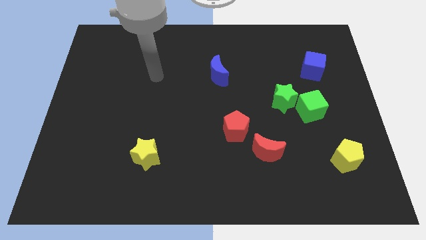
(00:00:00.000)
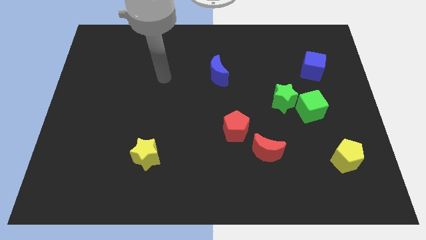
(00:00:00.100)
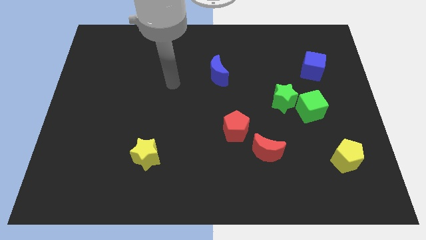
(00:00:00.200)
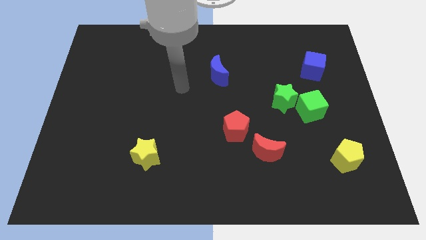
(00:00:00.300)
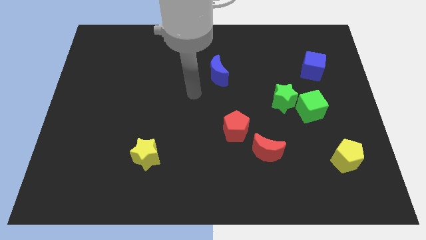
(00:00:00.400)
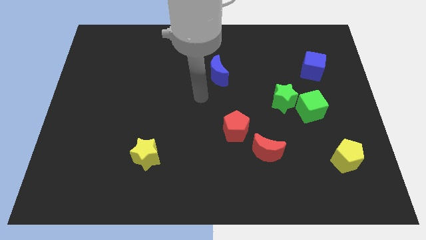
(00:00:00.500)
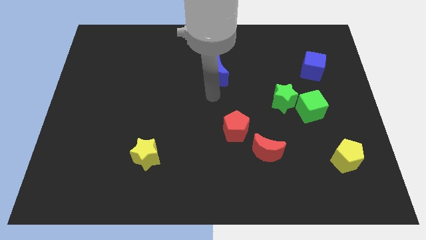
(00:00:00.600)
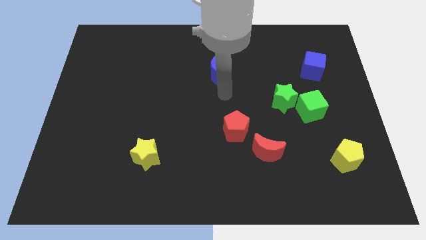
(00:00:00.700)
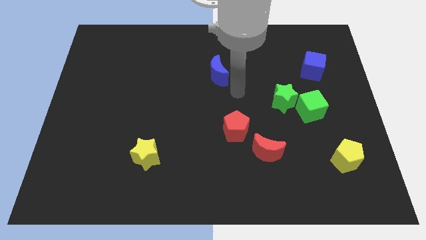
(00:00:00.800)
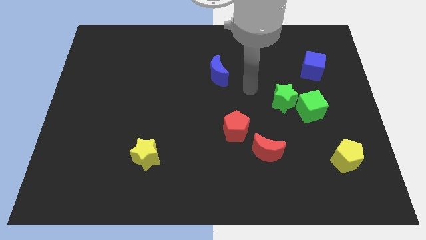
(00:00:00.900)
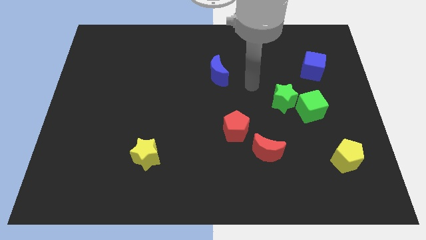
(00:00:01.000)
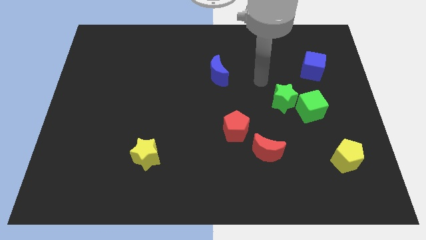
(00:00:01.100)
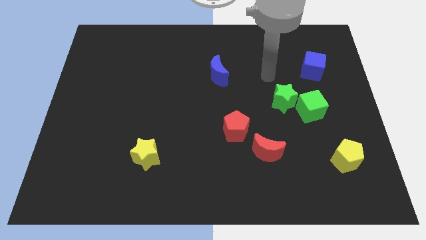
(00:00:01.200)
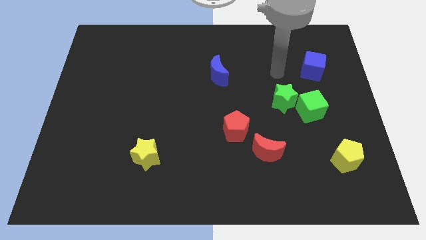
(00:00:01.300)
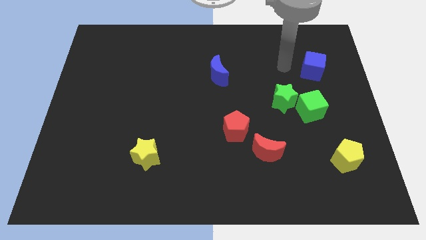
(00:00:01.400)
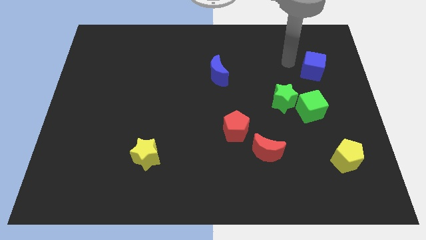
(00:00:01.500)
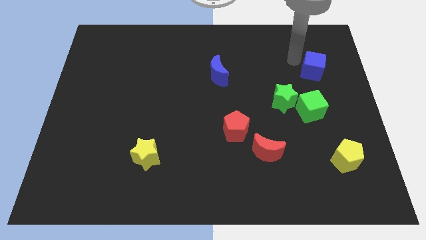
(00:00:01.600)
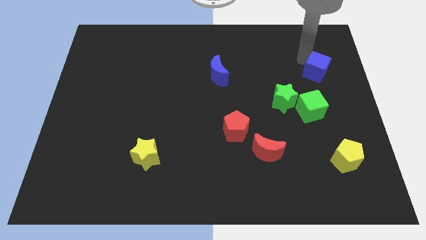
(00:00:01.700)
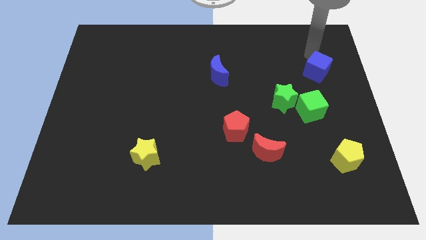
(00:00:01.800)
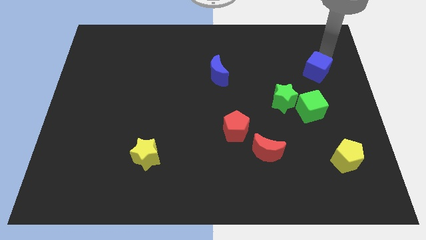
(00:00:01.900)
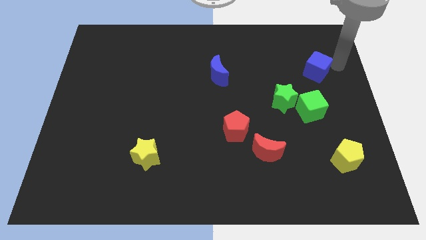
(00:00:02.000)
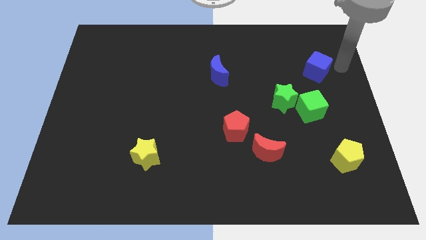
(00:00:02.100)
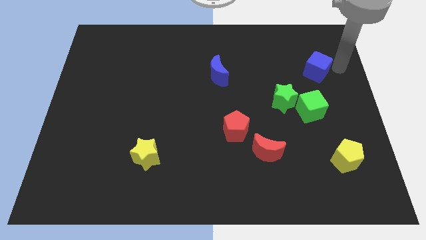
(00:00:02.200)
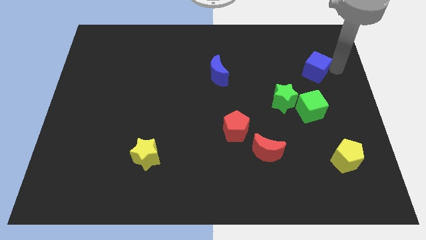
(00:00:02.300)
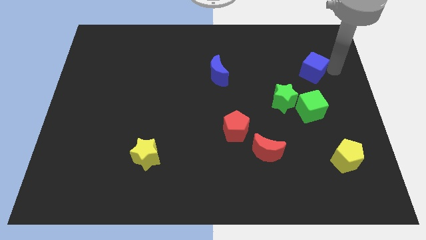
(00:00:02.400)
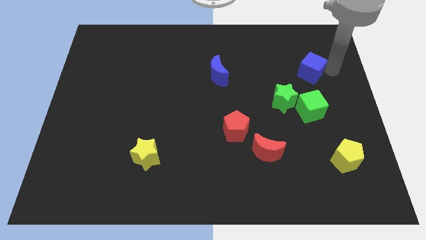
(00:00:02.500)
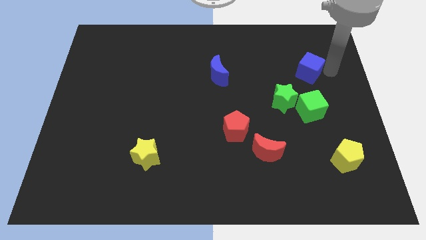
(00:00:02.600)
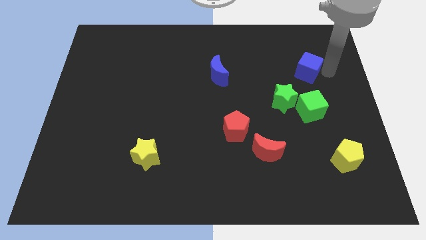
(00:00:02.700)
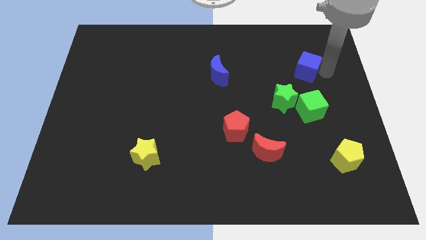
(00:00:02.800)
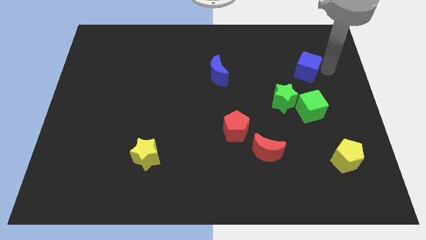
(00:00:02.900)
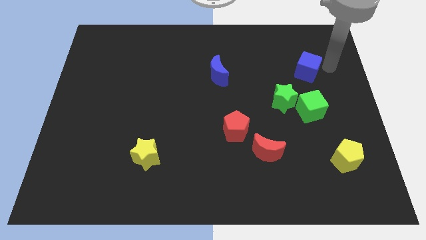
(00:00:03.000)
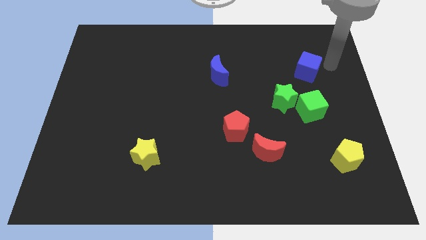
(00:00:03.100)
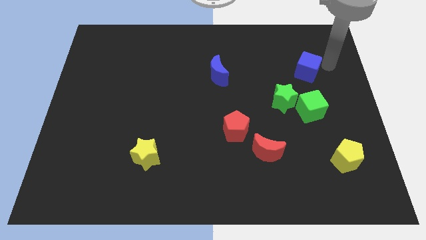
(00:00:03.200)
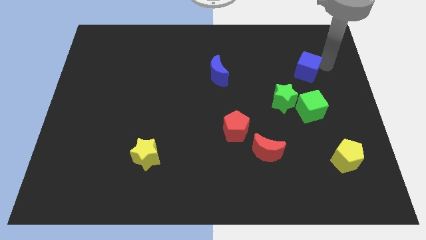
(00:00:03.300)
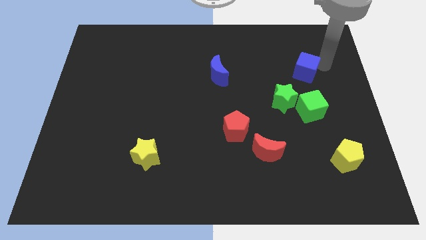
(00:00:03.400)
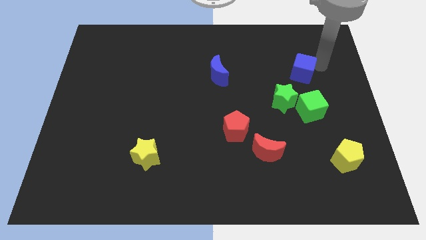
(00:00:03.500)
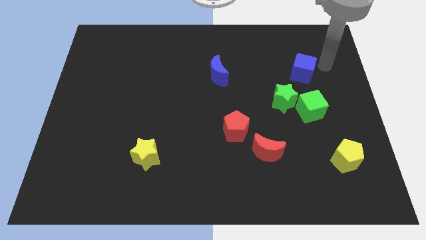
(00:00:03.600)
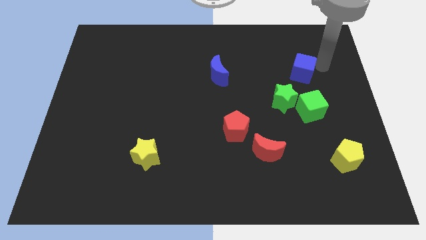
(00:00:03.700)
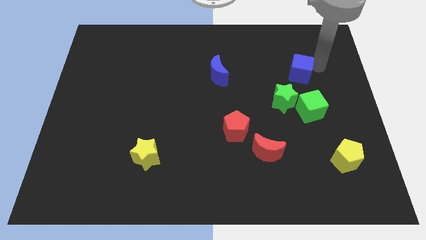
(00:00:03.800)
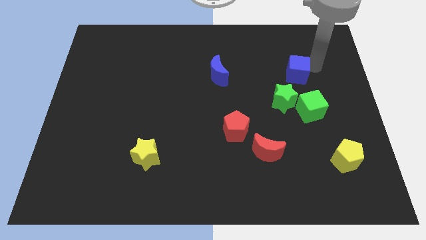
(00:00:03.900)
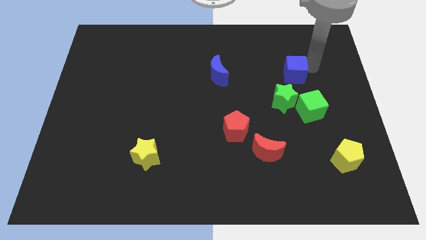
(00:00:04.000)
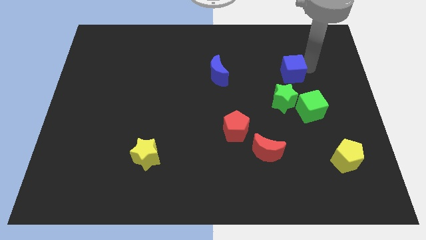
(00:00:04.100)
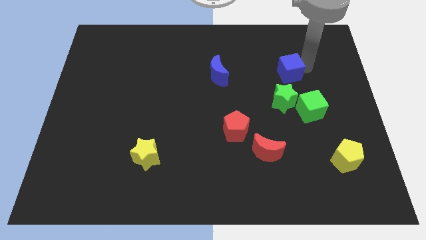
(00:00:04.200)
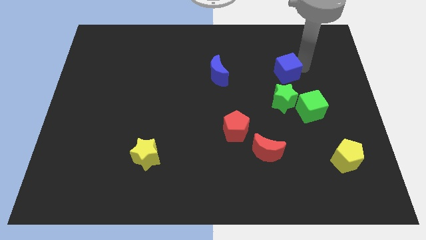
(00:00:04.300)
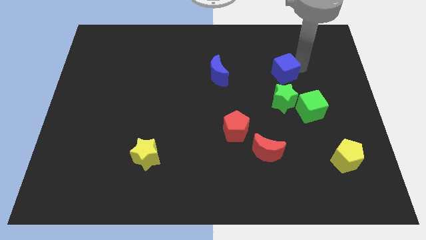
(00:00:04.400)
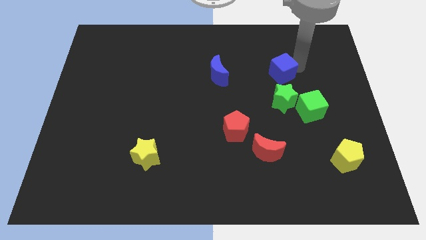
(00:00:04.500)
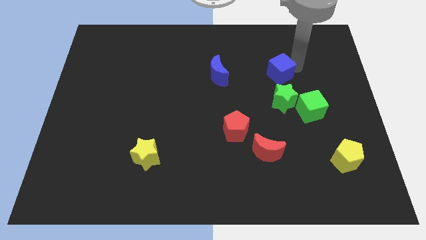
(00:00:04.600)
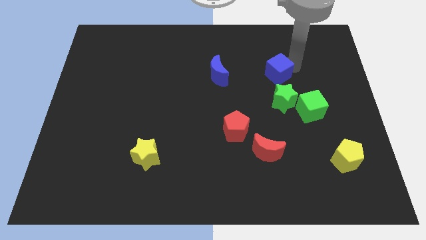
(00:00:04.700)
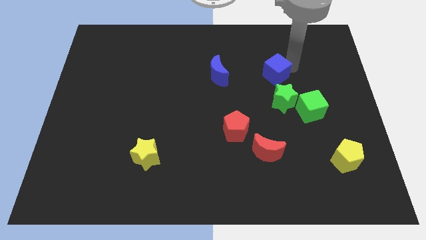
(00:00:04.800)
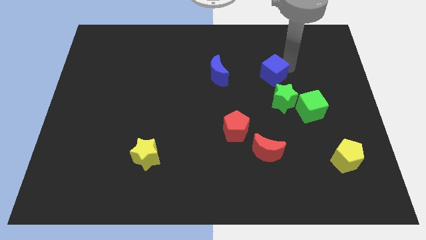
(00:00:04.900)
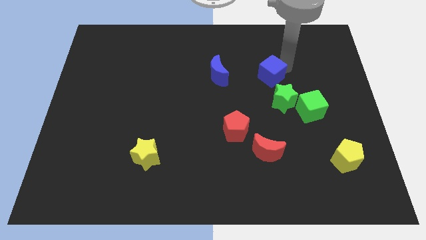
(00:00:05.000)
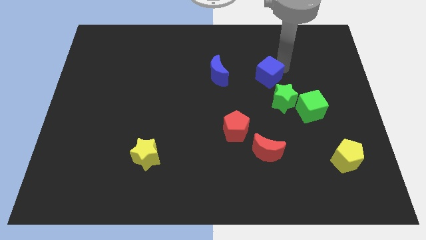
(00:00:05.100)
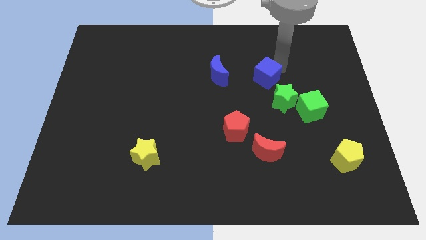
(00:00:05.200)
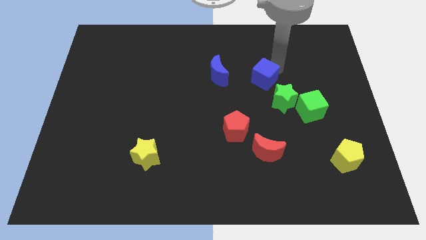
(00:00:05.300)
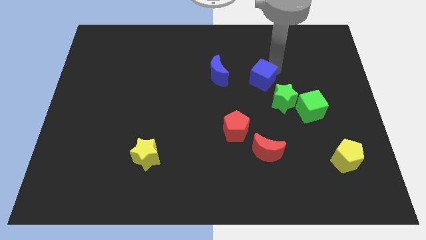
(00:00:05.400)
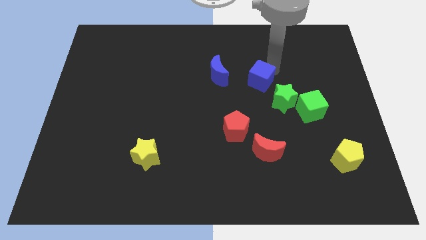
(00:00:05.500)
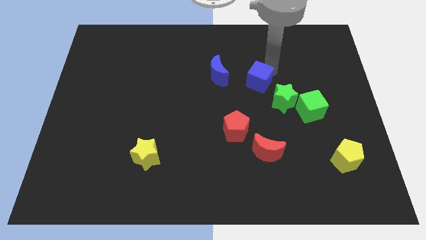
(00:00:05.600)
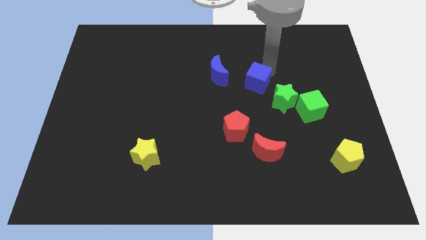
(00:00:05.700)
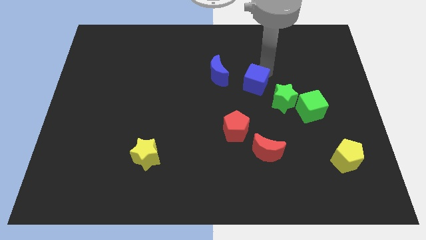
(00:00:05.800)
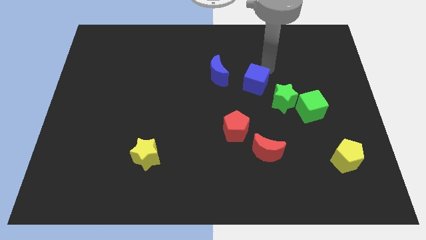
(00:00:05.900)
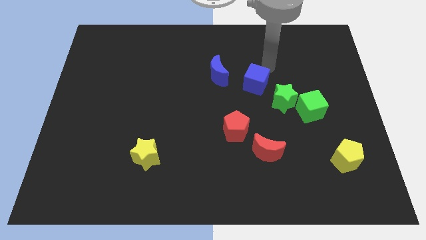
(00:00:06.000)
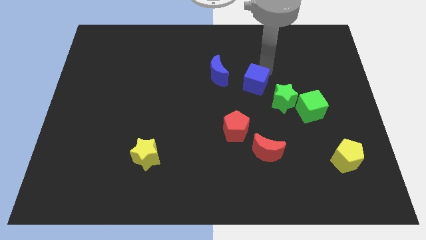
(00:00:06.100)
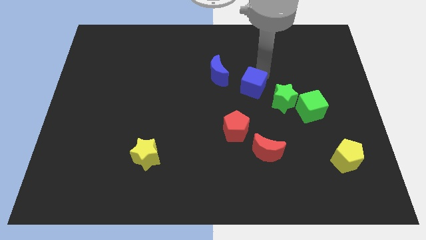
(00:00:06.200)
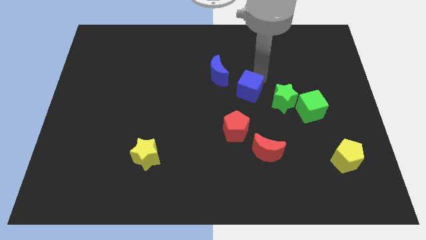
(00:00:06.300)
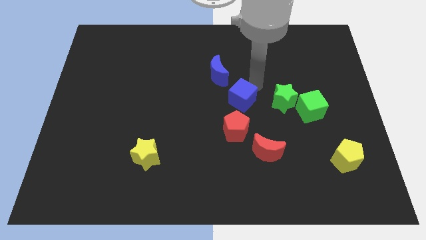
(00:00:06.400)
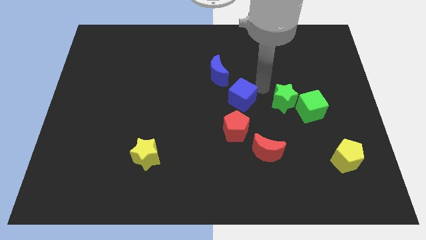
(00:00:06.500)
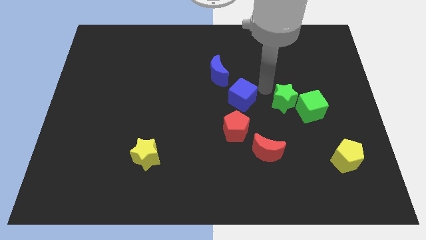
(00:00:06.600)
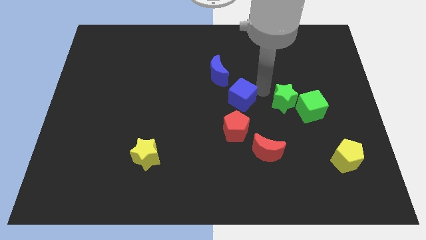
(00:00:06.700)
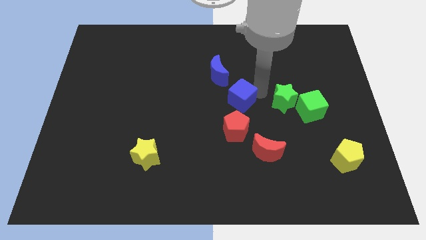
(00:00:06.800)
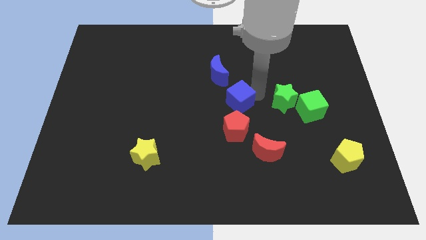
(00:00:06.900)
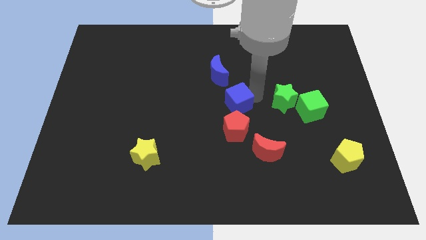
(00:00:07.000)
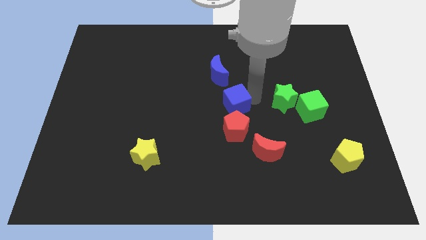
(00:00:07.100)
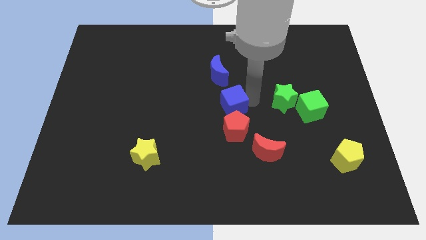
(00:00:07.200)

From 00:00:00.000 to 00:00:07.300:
move the blue cube diagonally up and to the left of the red pentagon

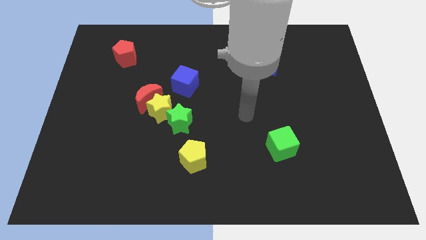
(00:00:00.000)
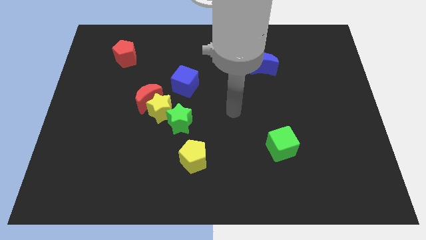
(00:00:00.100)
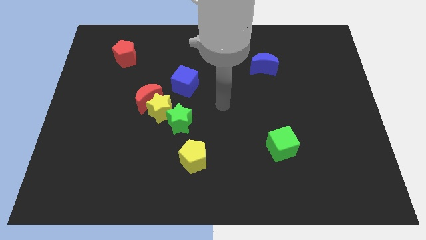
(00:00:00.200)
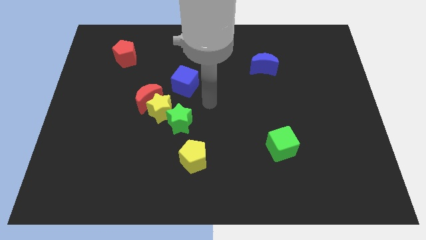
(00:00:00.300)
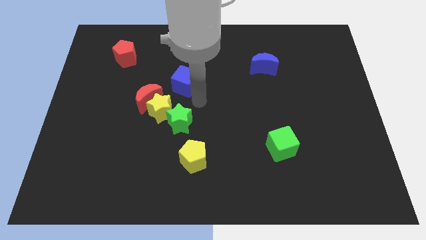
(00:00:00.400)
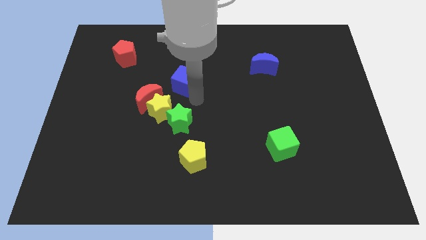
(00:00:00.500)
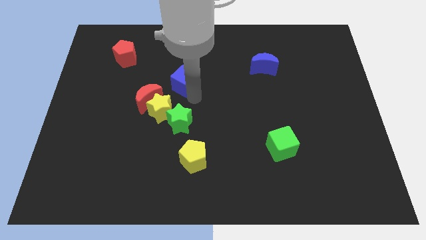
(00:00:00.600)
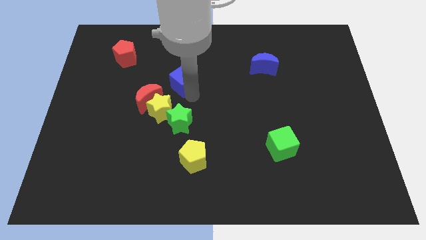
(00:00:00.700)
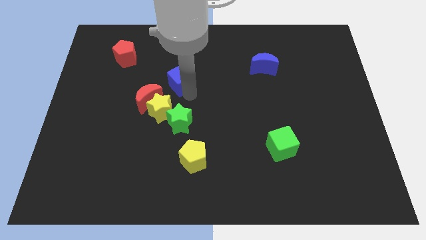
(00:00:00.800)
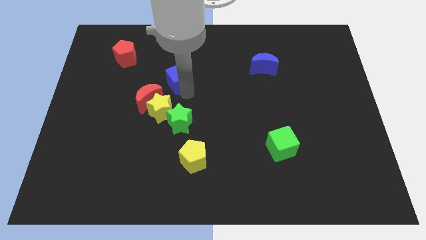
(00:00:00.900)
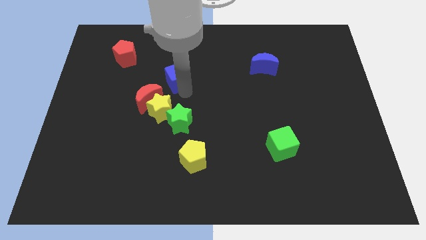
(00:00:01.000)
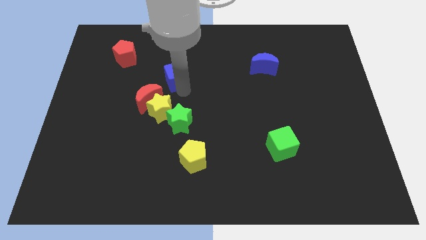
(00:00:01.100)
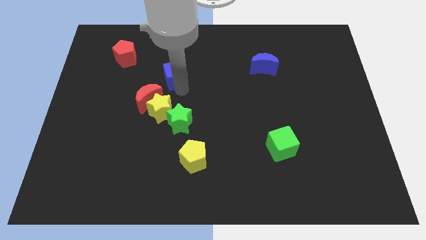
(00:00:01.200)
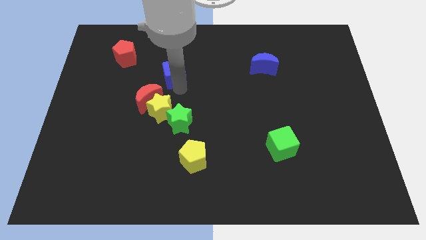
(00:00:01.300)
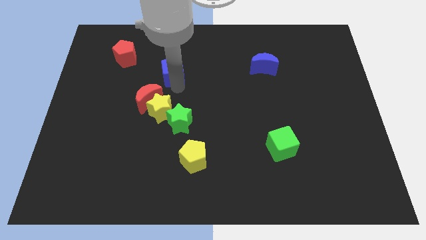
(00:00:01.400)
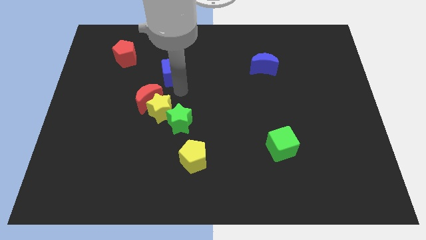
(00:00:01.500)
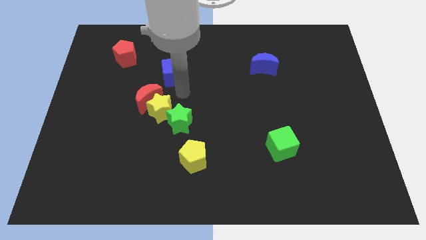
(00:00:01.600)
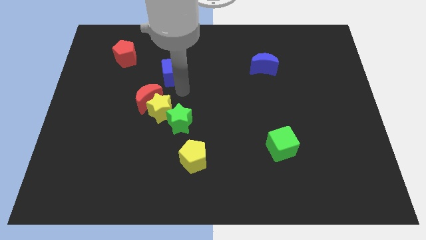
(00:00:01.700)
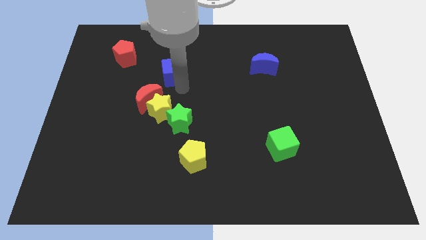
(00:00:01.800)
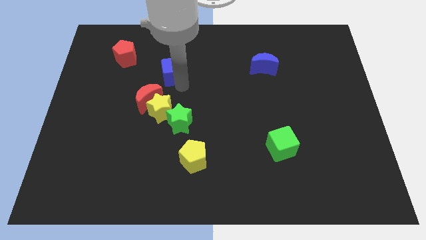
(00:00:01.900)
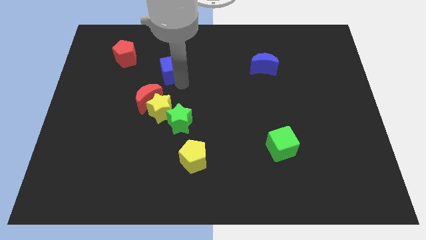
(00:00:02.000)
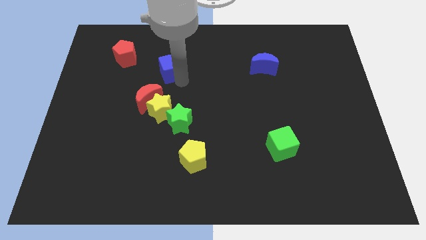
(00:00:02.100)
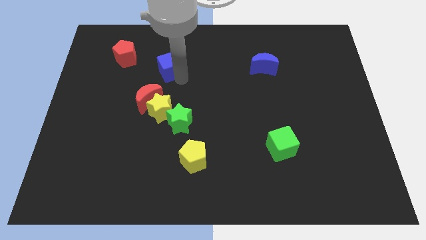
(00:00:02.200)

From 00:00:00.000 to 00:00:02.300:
put the blue cube to the right side of the red pentagon
